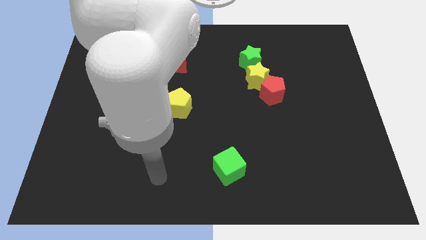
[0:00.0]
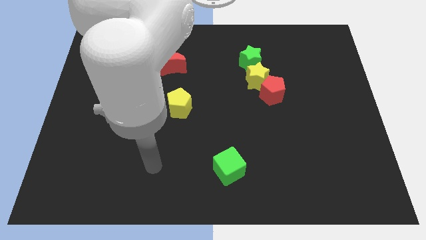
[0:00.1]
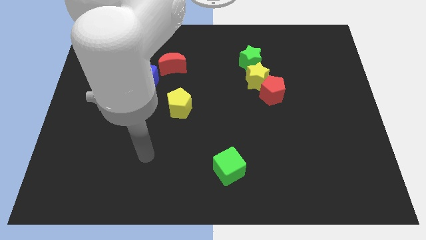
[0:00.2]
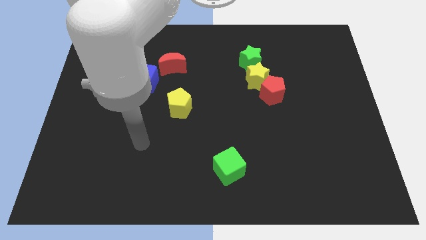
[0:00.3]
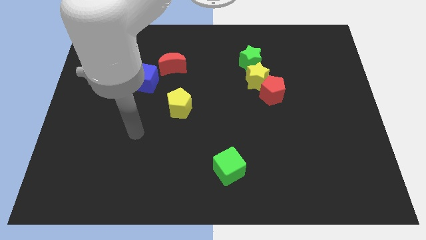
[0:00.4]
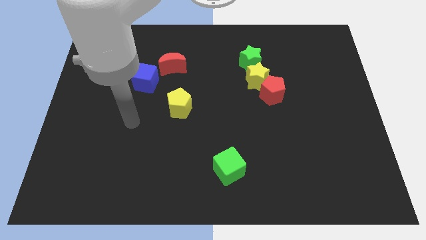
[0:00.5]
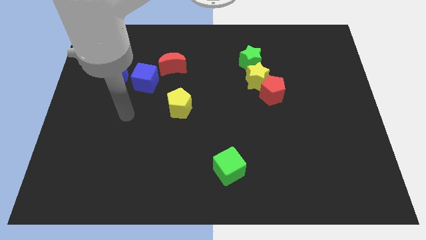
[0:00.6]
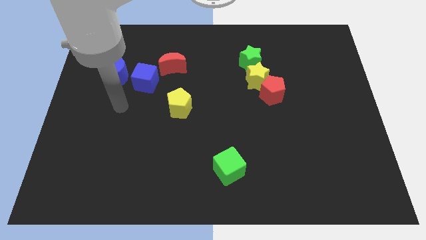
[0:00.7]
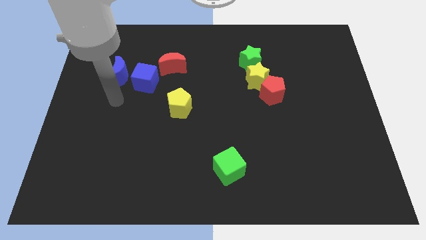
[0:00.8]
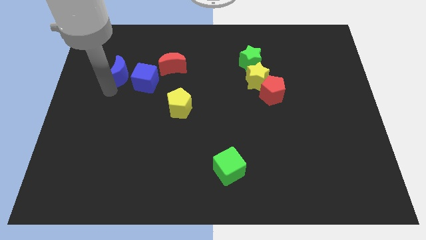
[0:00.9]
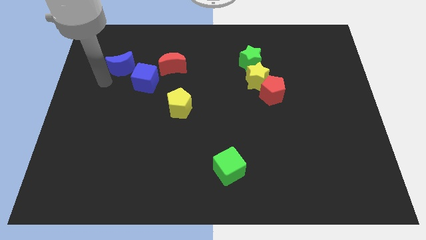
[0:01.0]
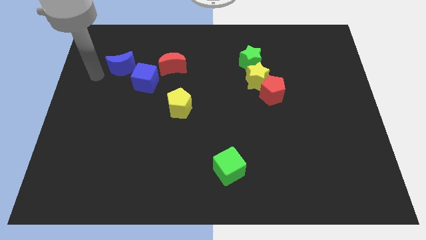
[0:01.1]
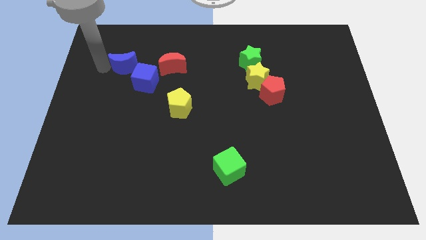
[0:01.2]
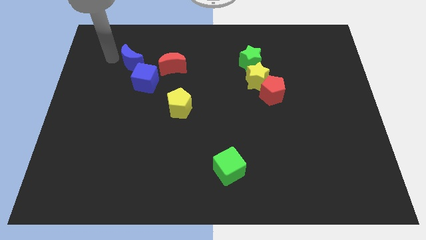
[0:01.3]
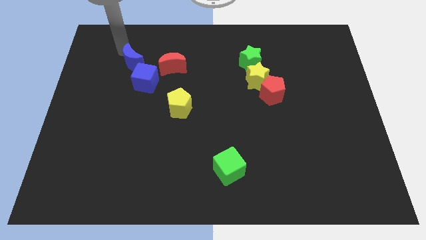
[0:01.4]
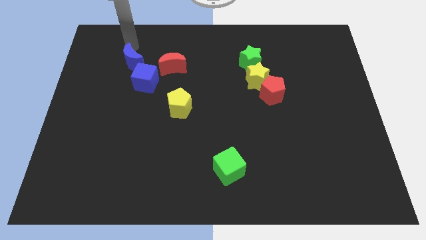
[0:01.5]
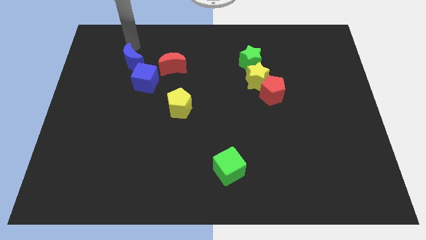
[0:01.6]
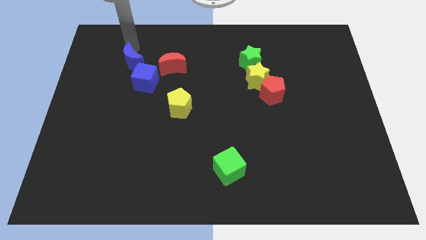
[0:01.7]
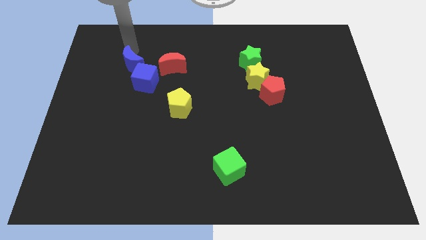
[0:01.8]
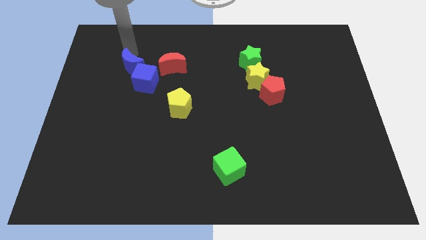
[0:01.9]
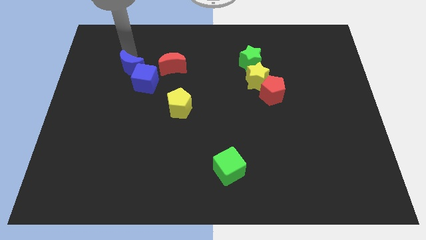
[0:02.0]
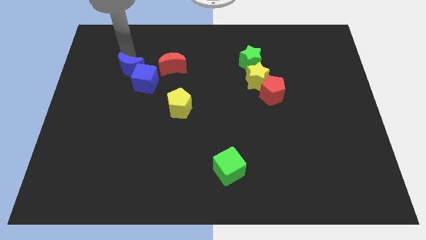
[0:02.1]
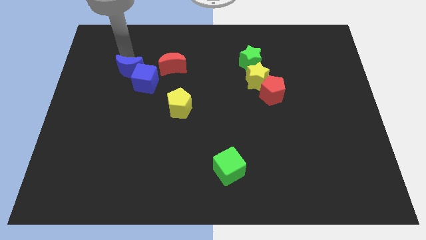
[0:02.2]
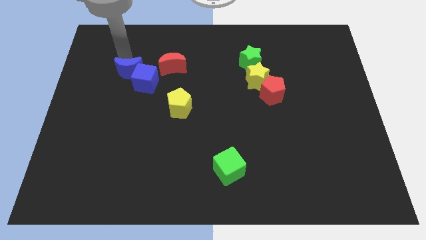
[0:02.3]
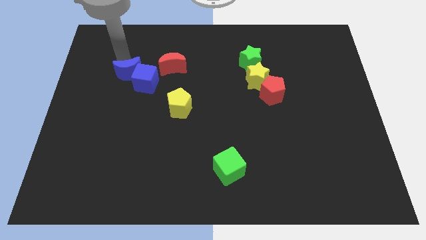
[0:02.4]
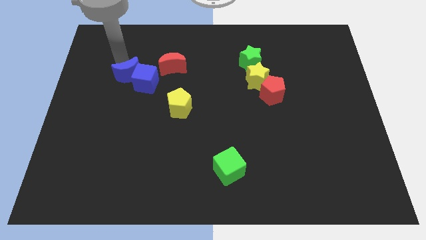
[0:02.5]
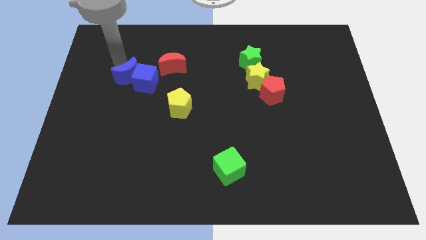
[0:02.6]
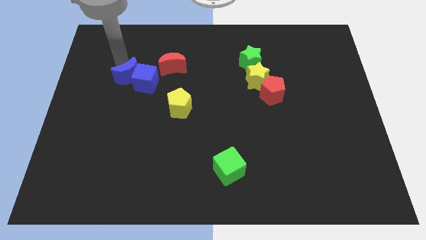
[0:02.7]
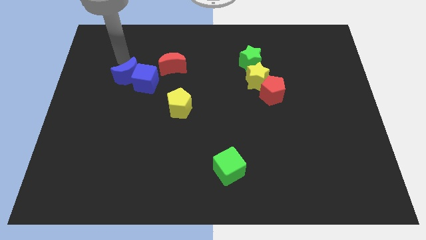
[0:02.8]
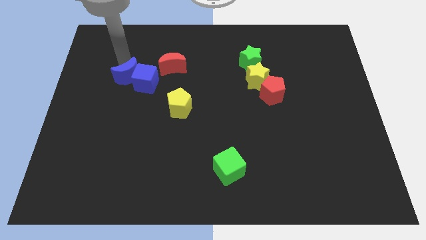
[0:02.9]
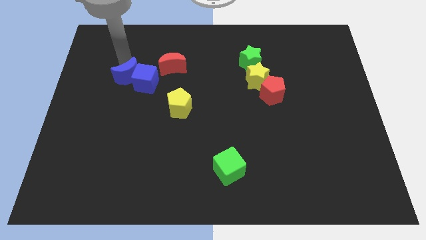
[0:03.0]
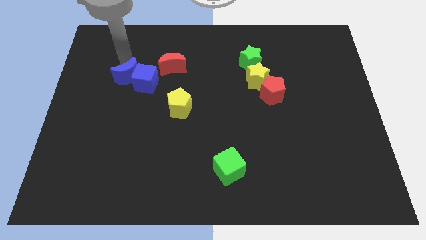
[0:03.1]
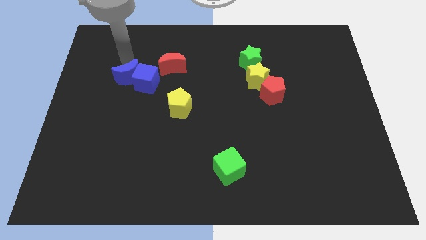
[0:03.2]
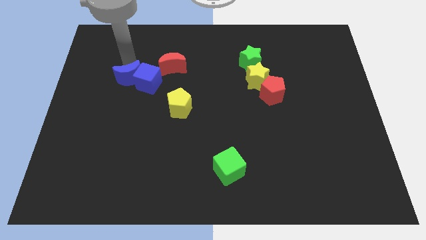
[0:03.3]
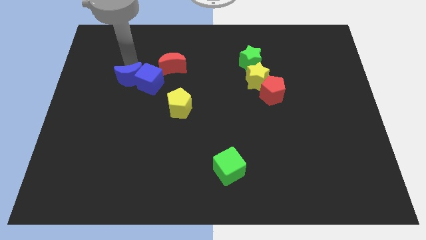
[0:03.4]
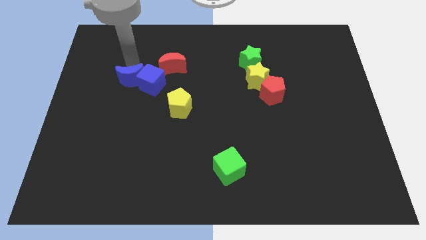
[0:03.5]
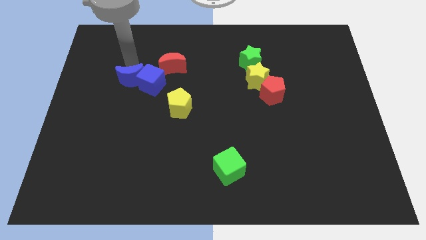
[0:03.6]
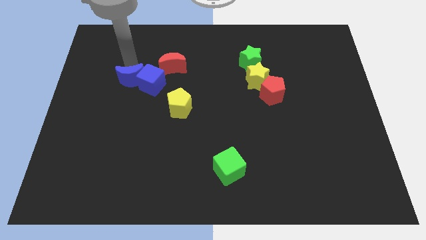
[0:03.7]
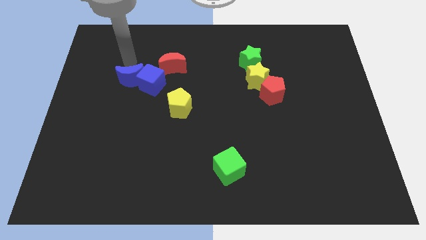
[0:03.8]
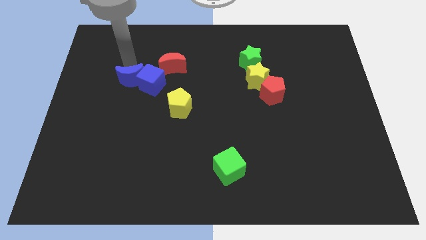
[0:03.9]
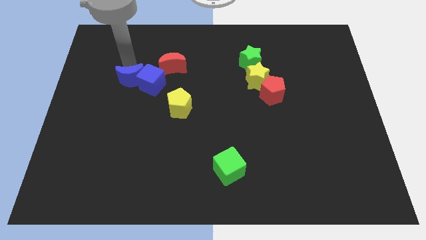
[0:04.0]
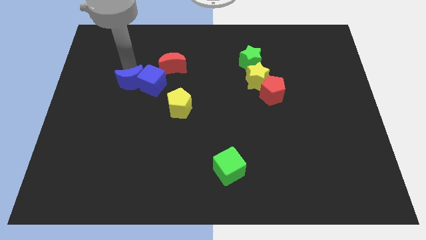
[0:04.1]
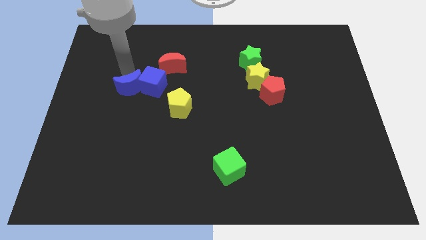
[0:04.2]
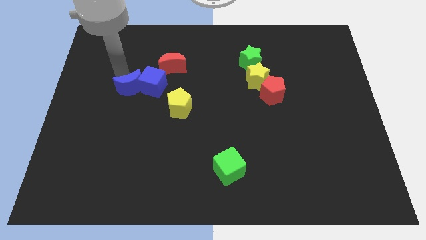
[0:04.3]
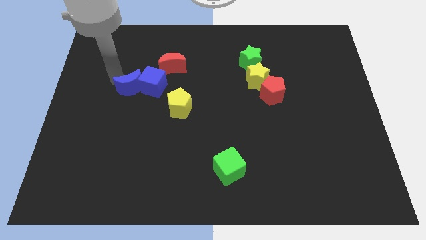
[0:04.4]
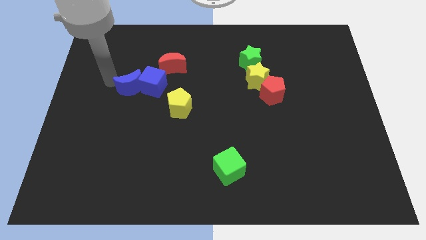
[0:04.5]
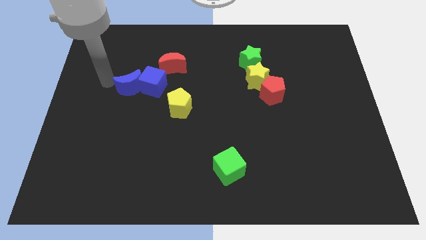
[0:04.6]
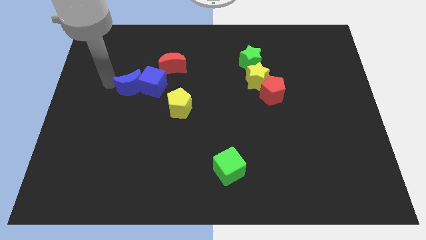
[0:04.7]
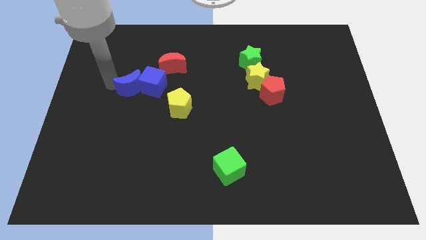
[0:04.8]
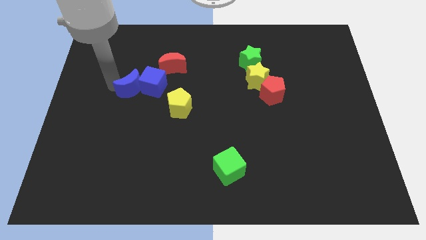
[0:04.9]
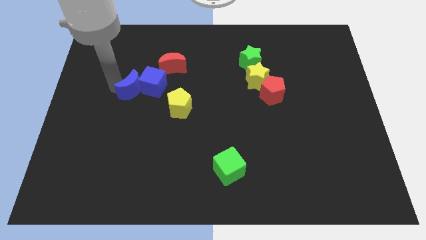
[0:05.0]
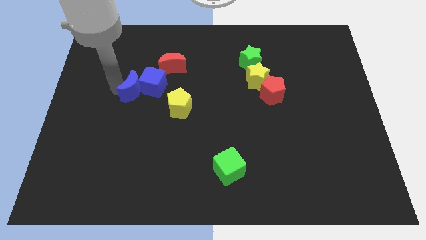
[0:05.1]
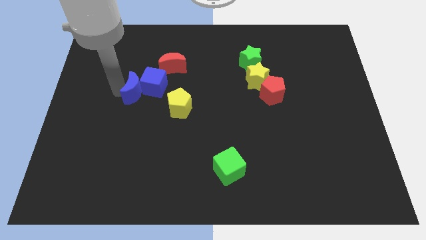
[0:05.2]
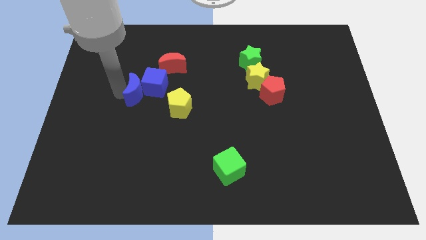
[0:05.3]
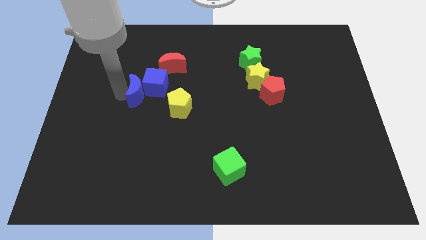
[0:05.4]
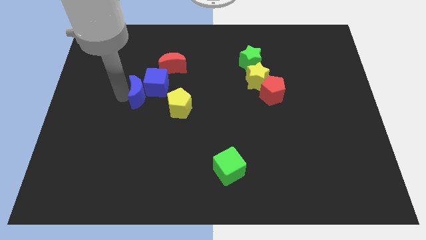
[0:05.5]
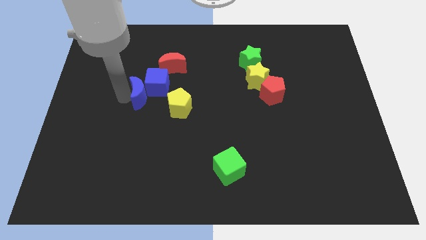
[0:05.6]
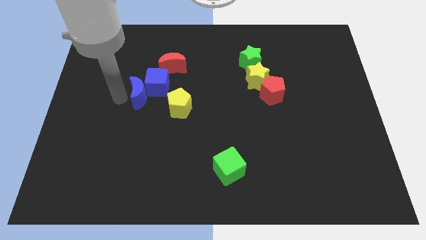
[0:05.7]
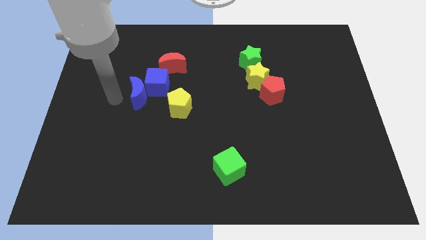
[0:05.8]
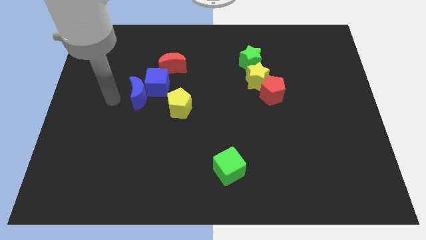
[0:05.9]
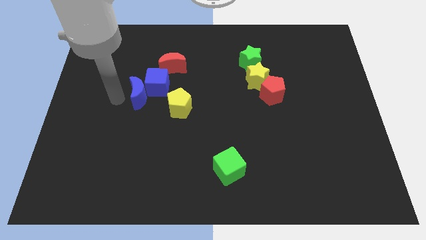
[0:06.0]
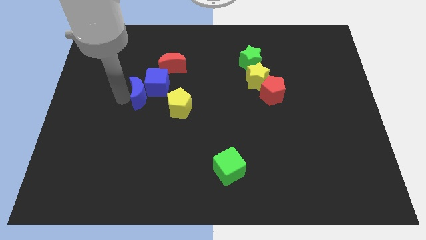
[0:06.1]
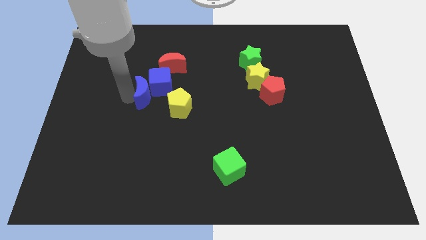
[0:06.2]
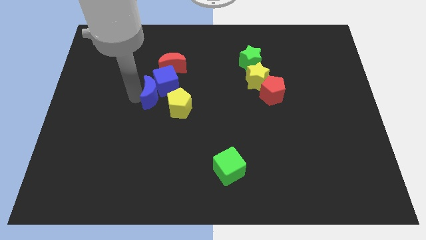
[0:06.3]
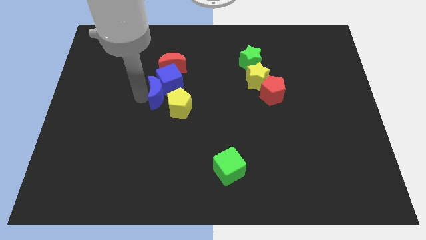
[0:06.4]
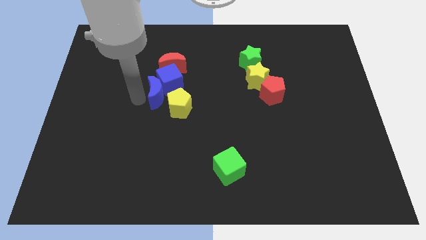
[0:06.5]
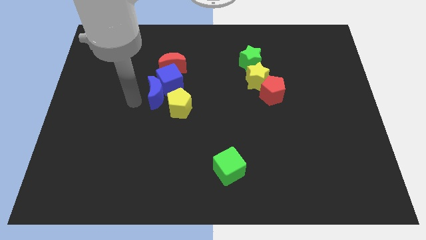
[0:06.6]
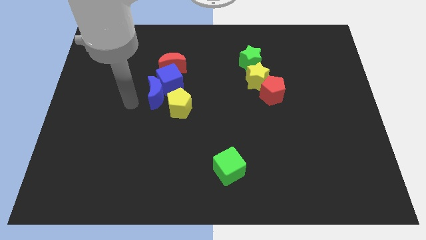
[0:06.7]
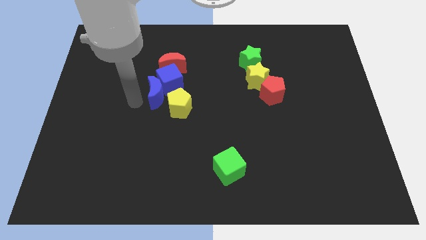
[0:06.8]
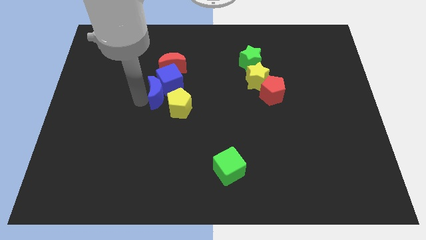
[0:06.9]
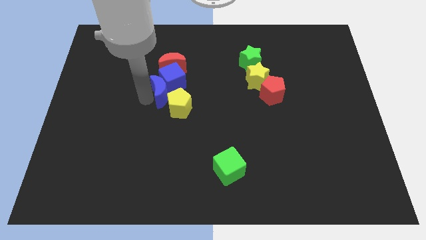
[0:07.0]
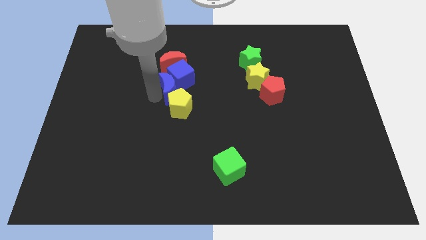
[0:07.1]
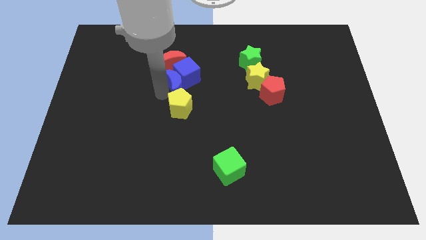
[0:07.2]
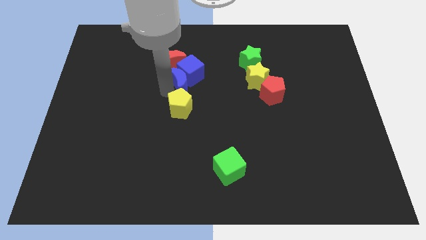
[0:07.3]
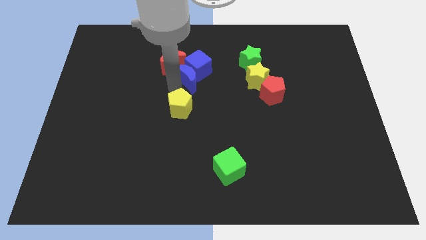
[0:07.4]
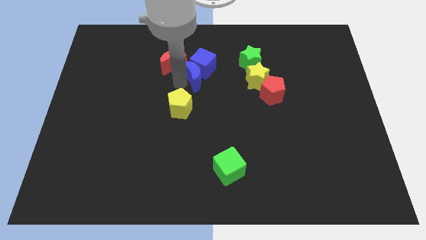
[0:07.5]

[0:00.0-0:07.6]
slide the blue moon to the left side of the yellow star
